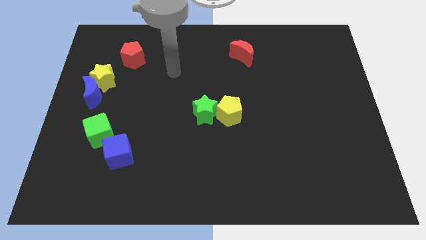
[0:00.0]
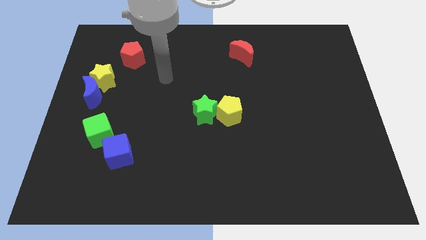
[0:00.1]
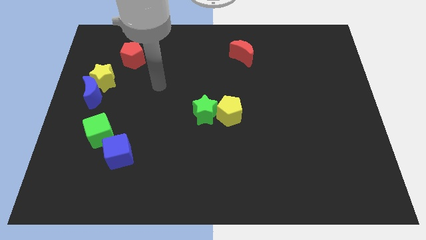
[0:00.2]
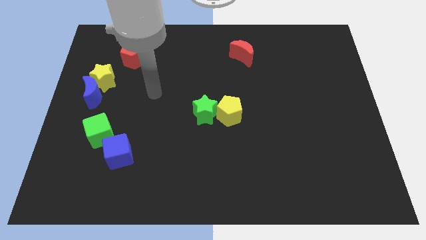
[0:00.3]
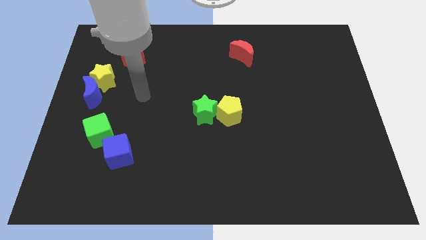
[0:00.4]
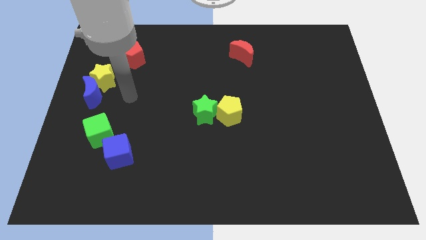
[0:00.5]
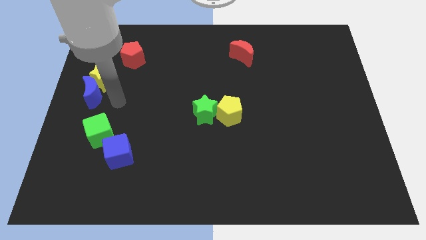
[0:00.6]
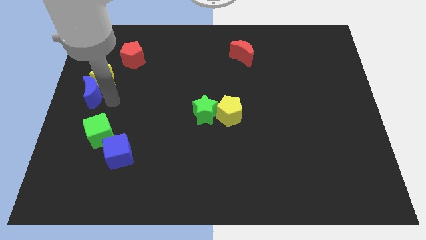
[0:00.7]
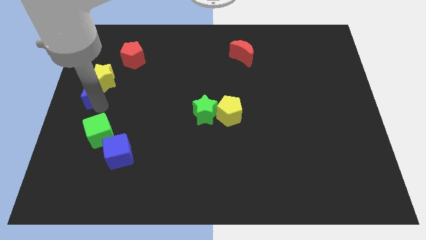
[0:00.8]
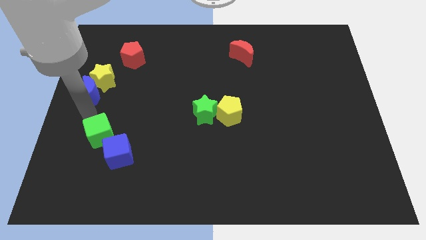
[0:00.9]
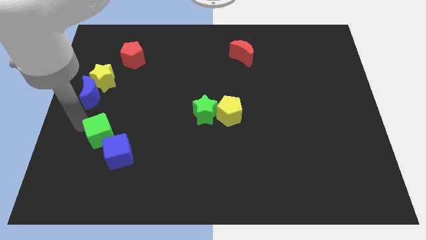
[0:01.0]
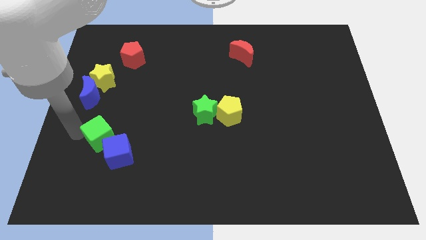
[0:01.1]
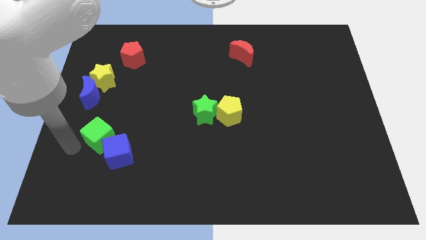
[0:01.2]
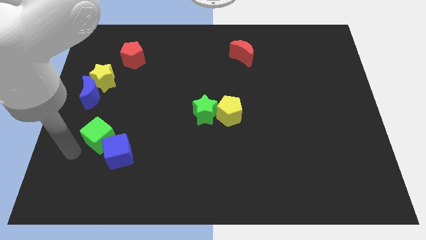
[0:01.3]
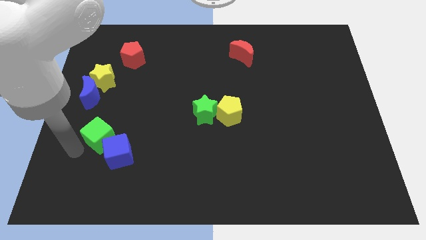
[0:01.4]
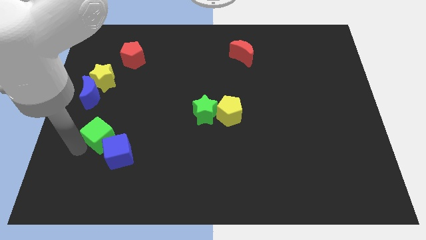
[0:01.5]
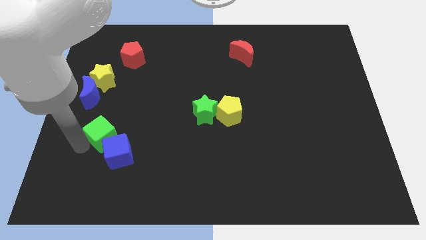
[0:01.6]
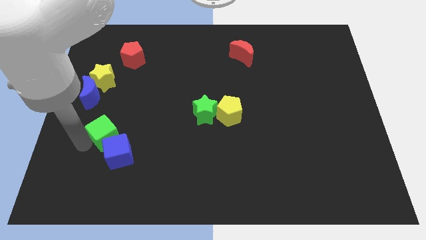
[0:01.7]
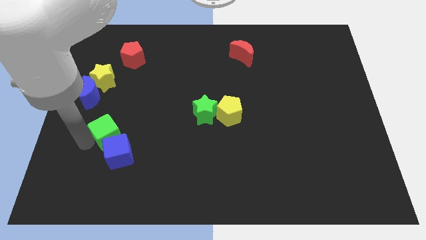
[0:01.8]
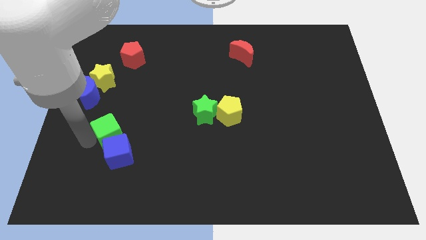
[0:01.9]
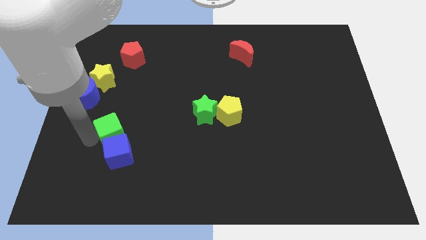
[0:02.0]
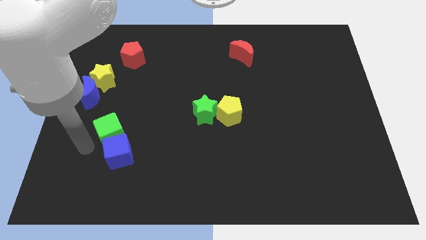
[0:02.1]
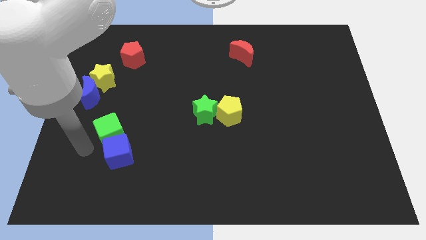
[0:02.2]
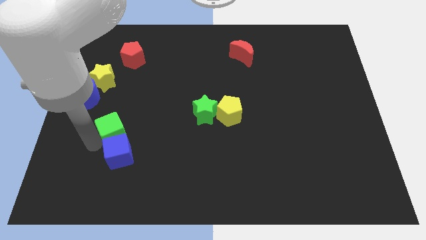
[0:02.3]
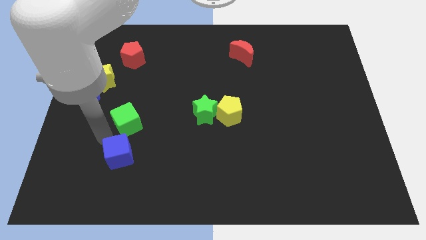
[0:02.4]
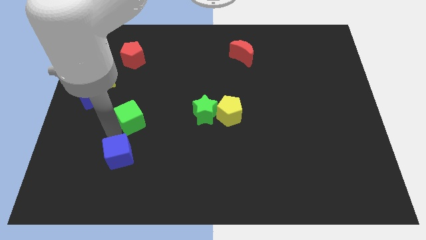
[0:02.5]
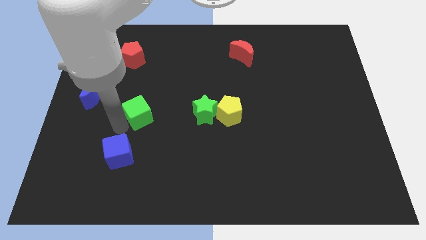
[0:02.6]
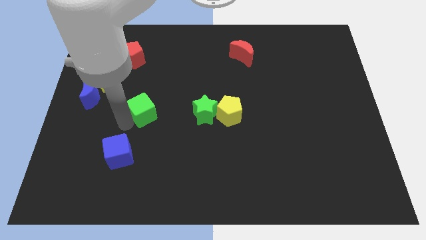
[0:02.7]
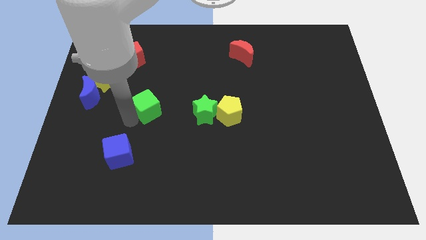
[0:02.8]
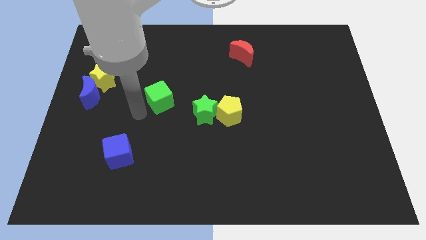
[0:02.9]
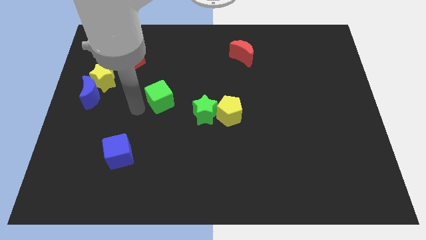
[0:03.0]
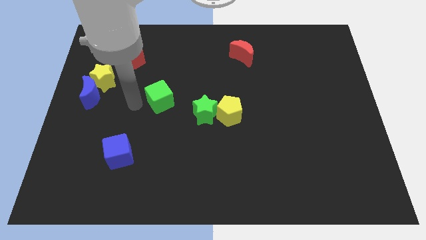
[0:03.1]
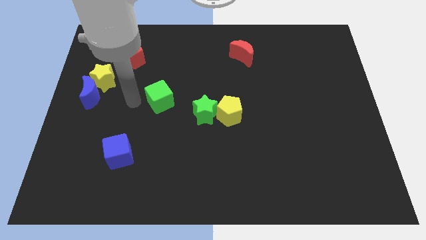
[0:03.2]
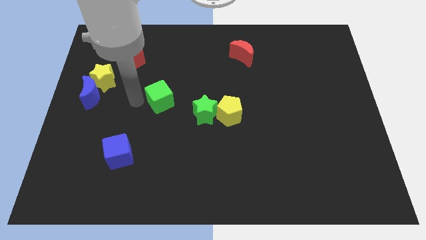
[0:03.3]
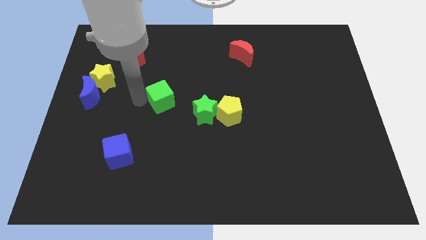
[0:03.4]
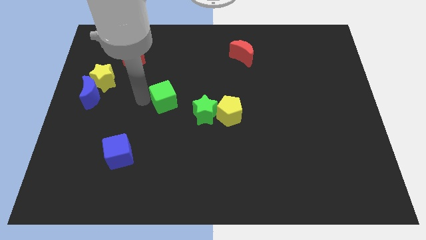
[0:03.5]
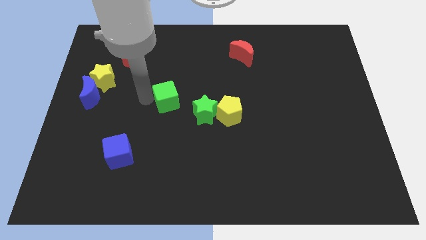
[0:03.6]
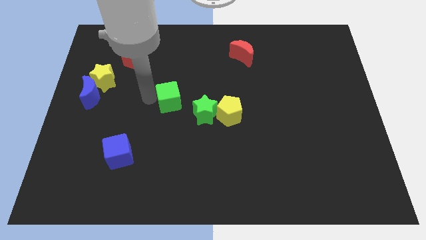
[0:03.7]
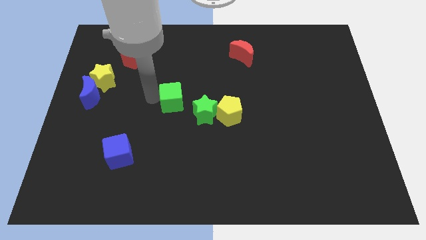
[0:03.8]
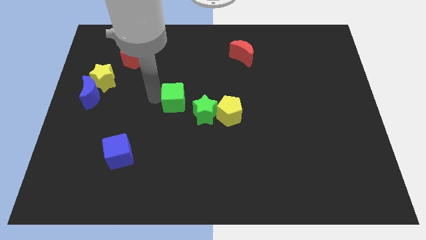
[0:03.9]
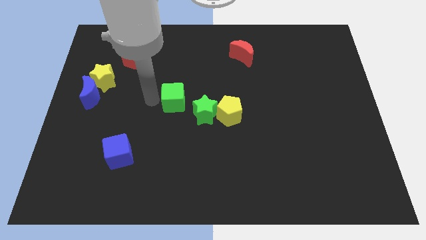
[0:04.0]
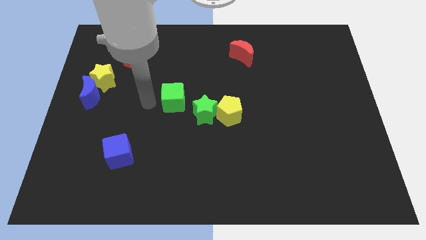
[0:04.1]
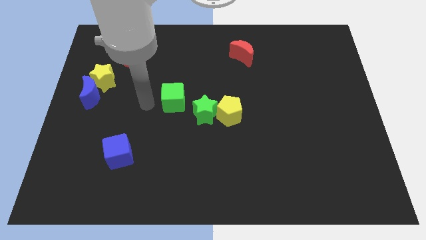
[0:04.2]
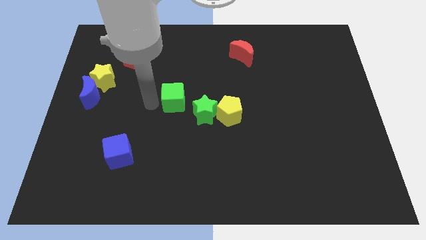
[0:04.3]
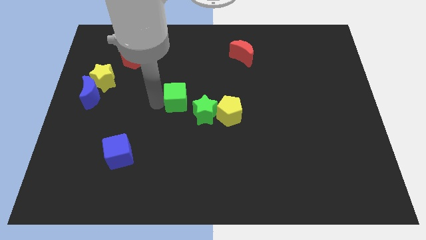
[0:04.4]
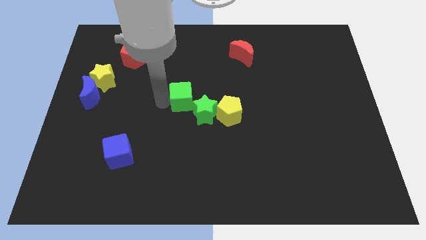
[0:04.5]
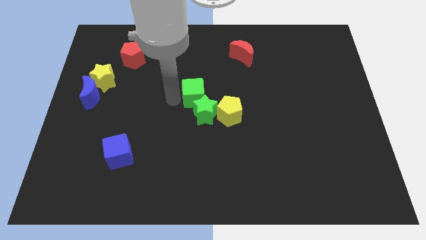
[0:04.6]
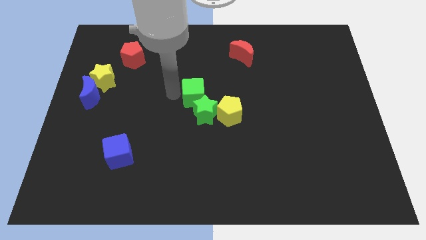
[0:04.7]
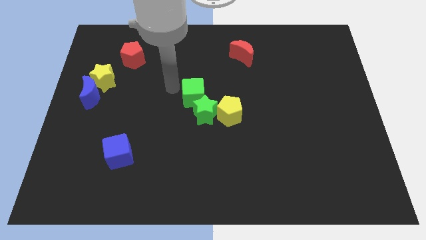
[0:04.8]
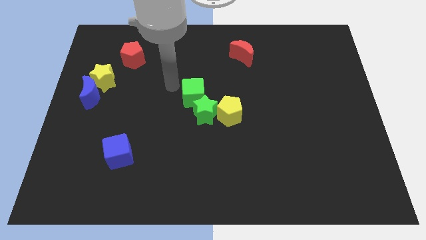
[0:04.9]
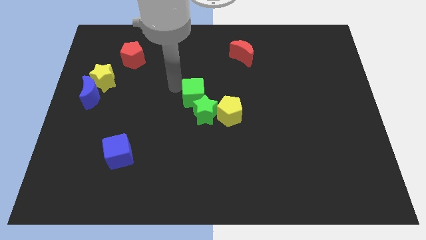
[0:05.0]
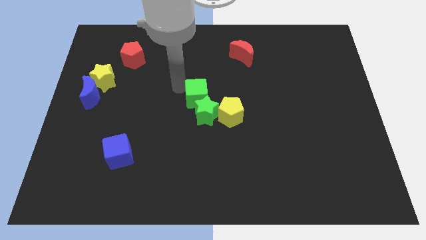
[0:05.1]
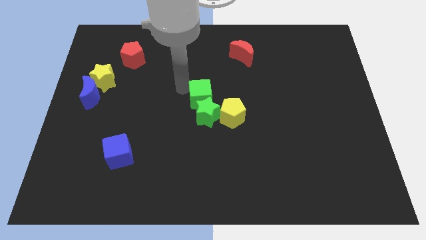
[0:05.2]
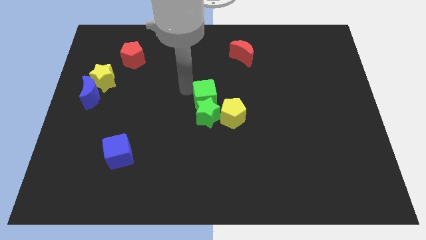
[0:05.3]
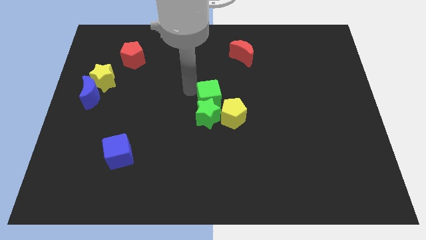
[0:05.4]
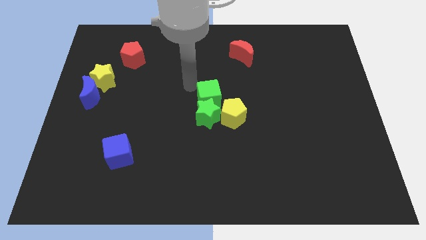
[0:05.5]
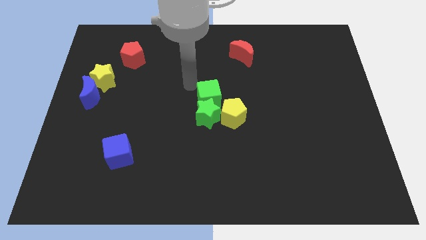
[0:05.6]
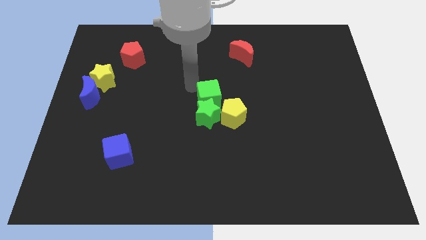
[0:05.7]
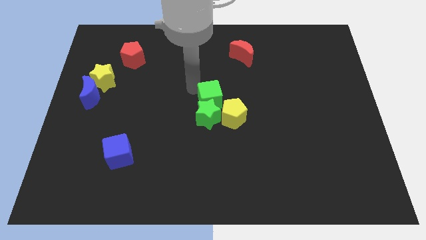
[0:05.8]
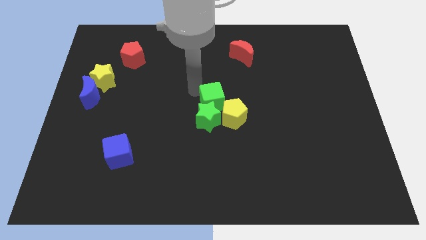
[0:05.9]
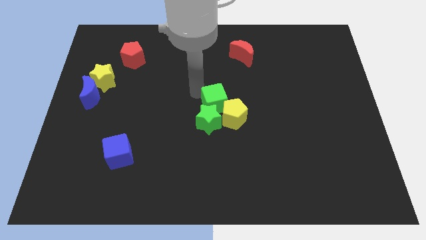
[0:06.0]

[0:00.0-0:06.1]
push the green cube to the yellow pentagon
